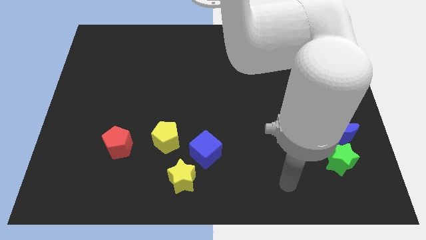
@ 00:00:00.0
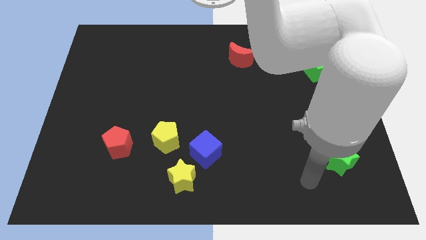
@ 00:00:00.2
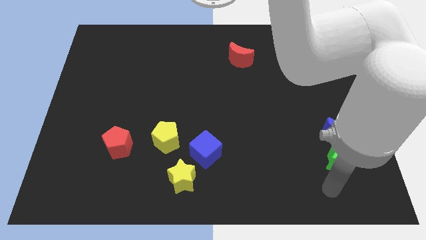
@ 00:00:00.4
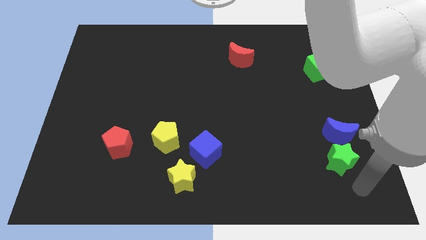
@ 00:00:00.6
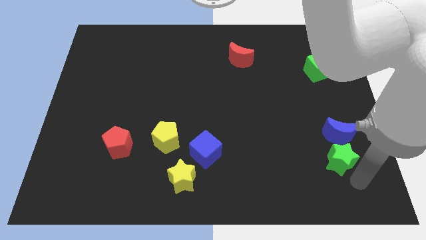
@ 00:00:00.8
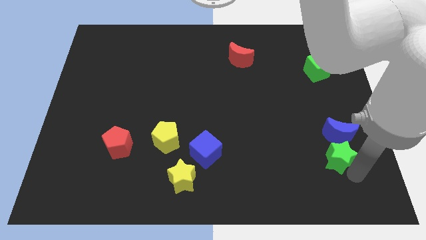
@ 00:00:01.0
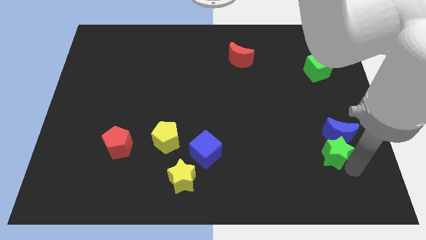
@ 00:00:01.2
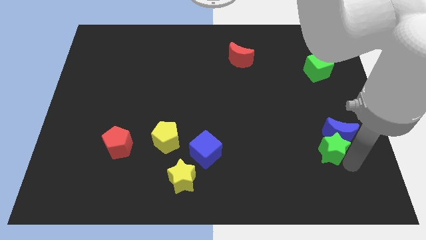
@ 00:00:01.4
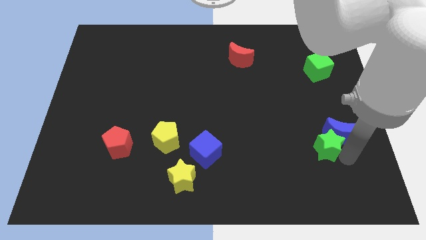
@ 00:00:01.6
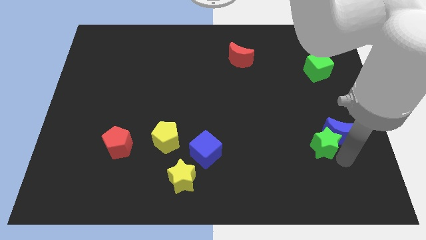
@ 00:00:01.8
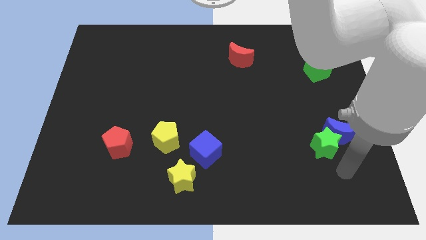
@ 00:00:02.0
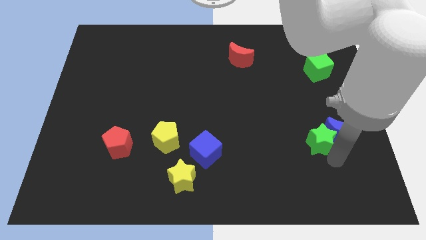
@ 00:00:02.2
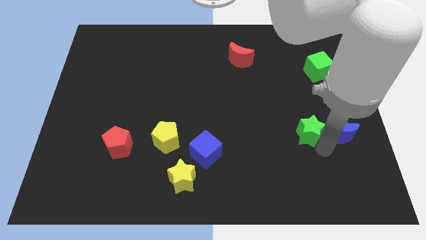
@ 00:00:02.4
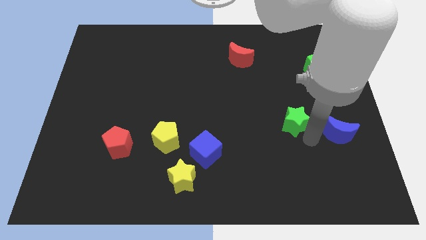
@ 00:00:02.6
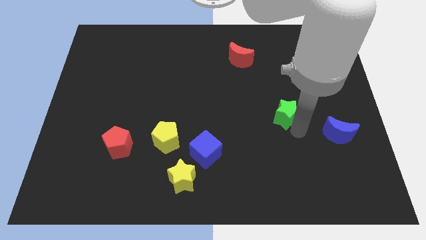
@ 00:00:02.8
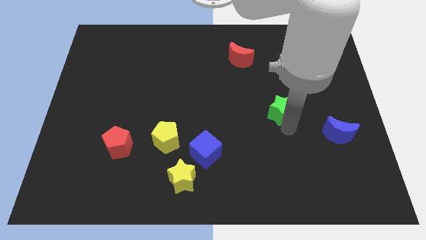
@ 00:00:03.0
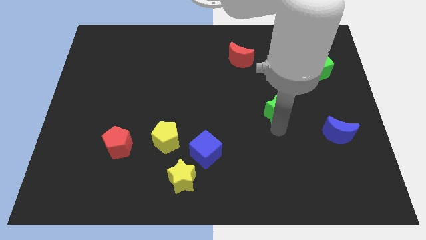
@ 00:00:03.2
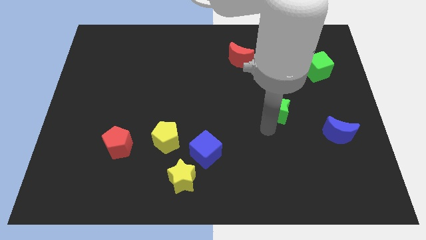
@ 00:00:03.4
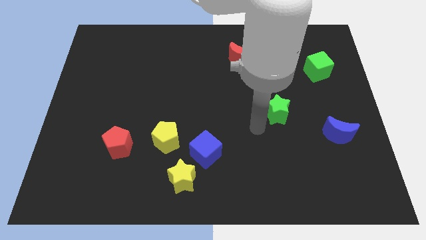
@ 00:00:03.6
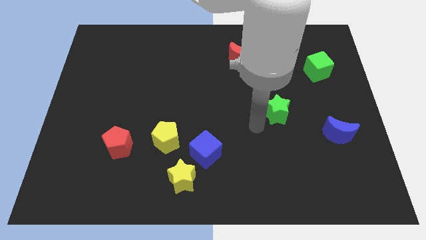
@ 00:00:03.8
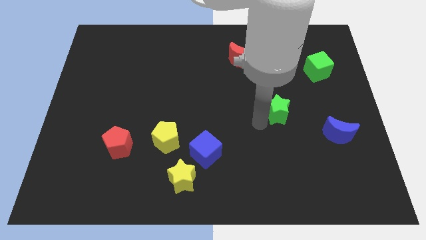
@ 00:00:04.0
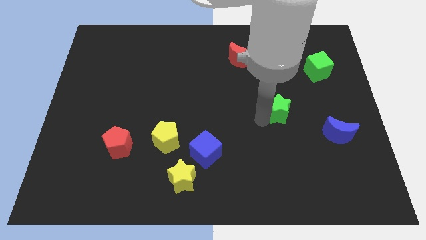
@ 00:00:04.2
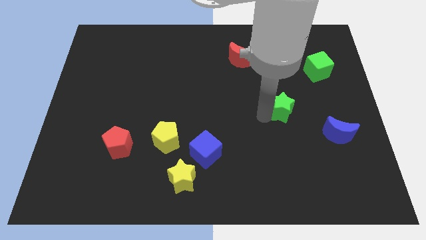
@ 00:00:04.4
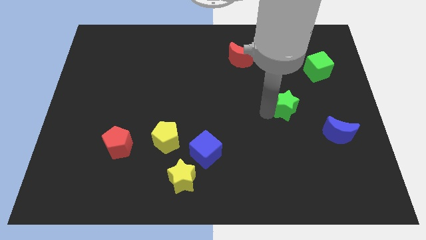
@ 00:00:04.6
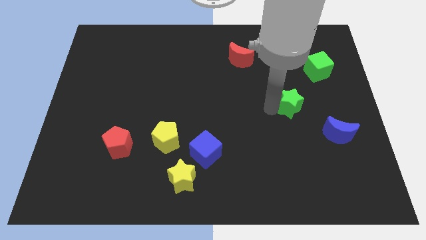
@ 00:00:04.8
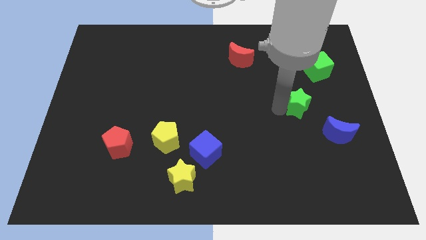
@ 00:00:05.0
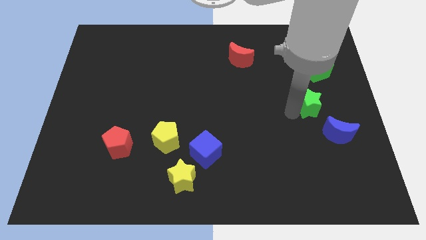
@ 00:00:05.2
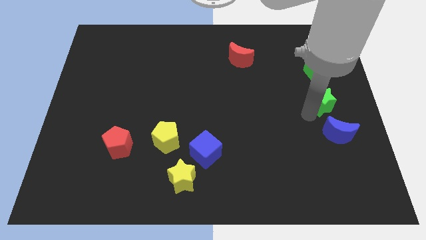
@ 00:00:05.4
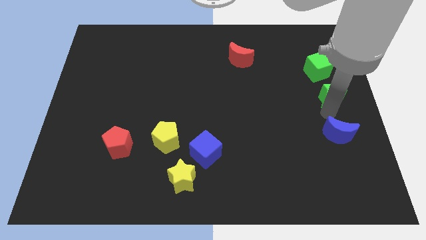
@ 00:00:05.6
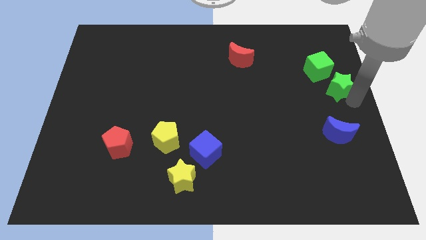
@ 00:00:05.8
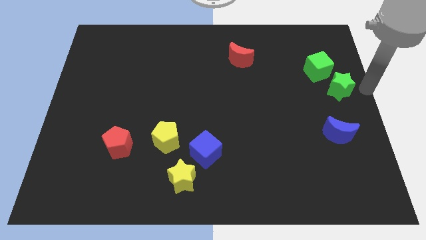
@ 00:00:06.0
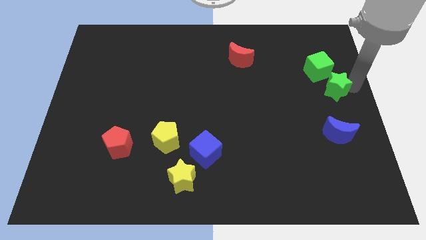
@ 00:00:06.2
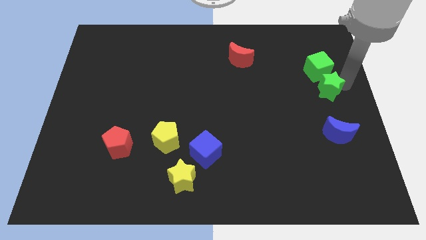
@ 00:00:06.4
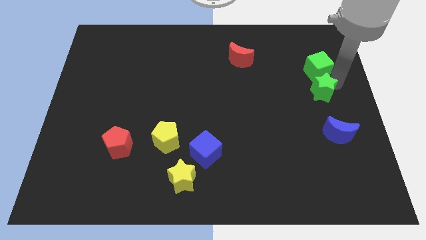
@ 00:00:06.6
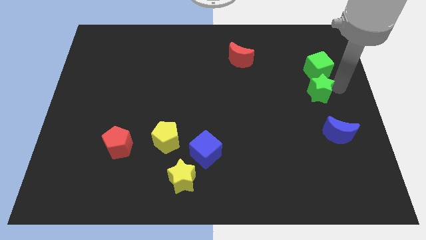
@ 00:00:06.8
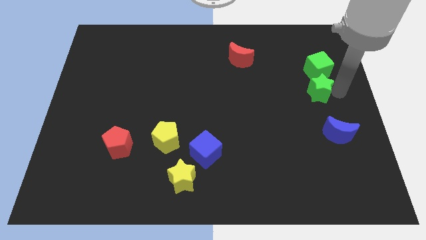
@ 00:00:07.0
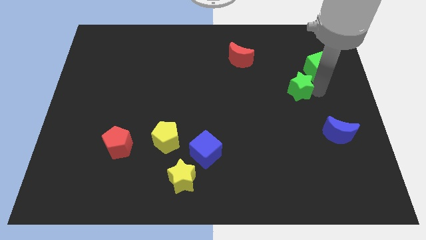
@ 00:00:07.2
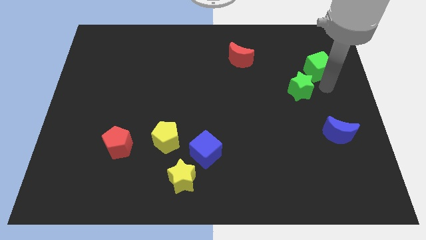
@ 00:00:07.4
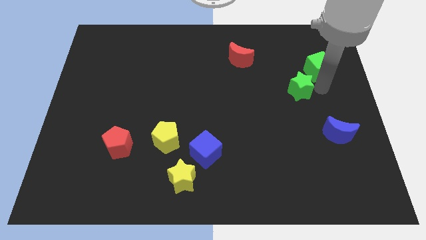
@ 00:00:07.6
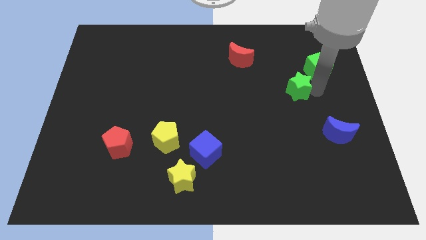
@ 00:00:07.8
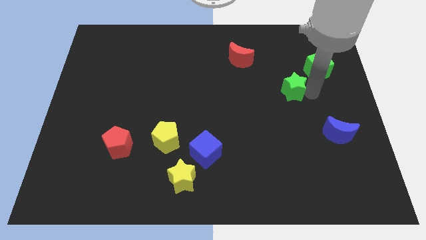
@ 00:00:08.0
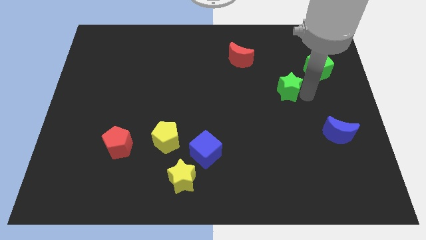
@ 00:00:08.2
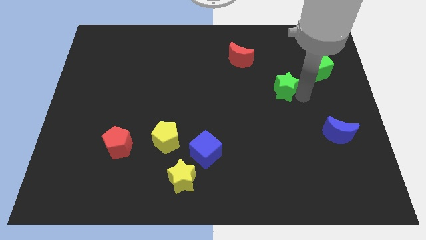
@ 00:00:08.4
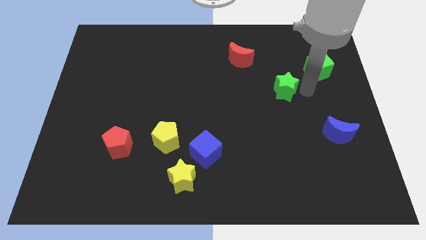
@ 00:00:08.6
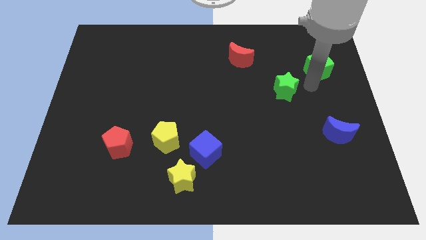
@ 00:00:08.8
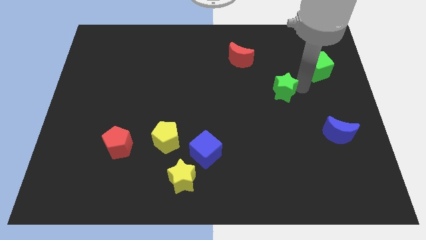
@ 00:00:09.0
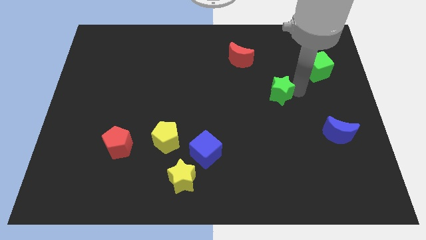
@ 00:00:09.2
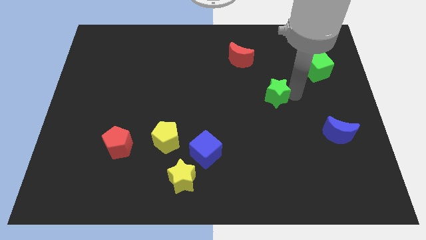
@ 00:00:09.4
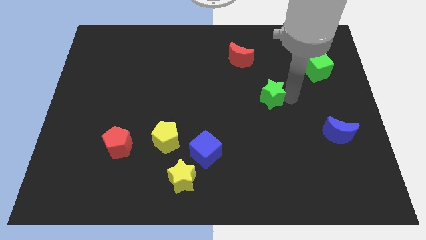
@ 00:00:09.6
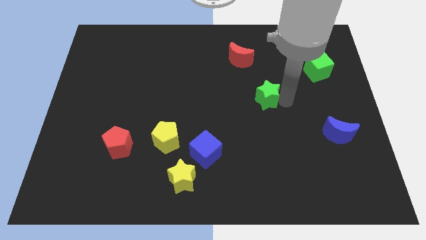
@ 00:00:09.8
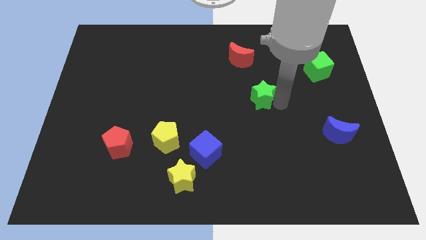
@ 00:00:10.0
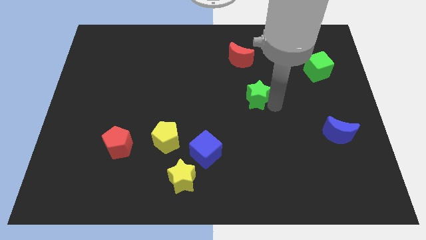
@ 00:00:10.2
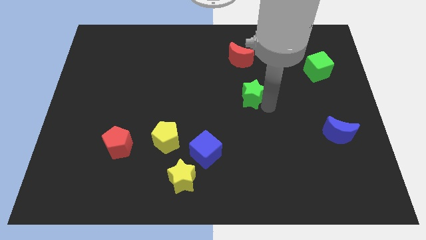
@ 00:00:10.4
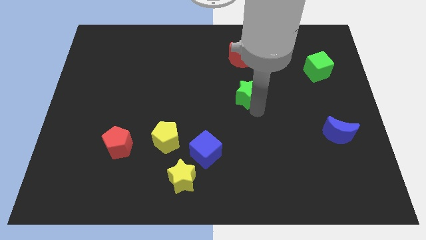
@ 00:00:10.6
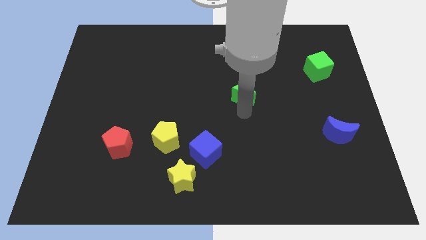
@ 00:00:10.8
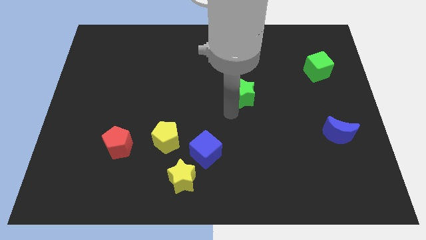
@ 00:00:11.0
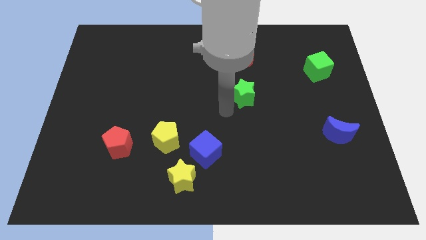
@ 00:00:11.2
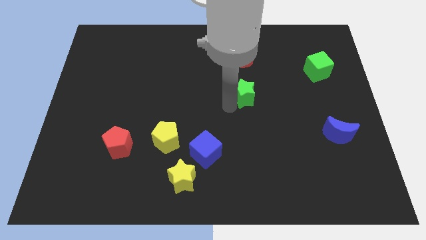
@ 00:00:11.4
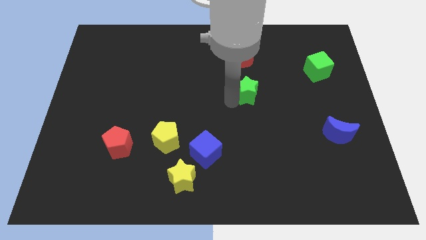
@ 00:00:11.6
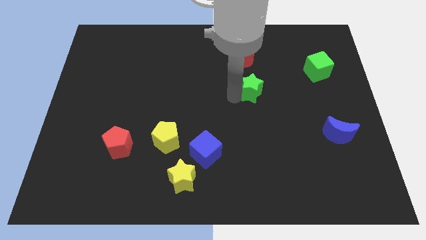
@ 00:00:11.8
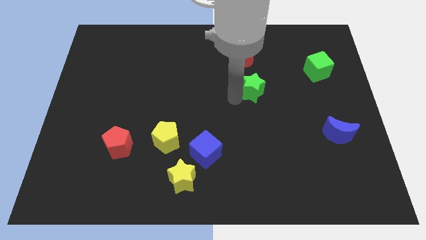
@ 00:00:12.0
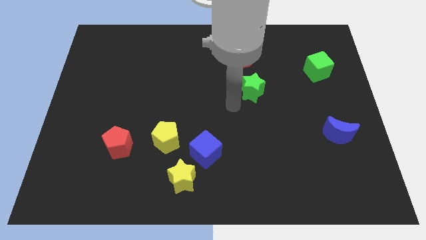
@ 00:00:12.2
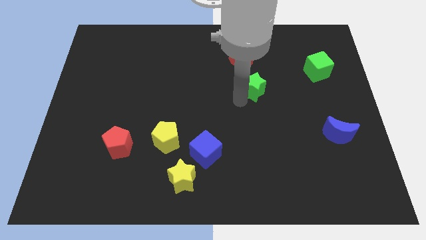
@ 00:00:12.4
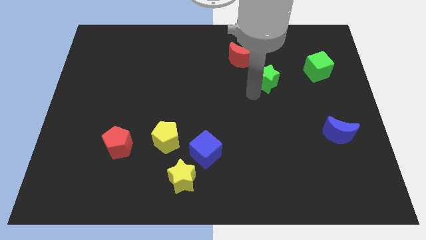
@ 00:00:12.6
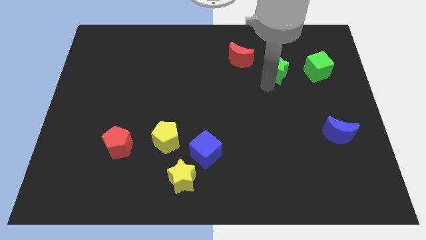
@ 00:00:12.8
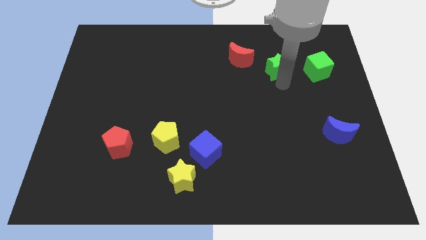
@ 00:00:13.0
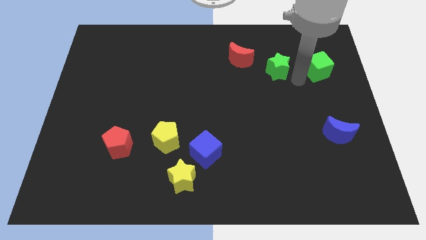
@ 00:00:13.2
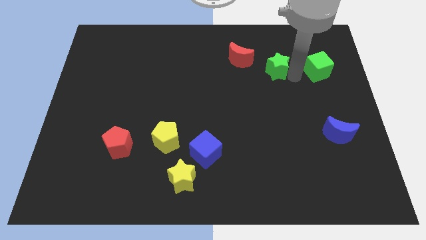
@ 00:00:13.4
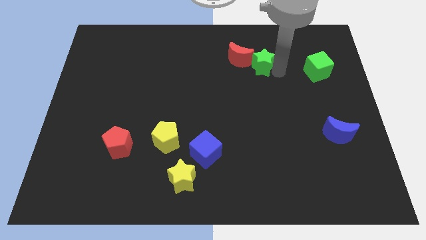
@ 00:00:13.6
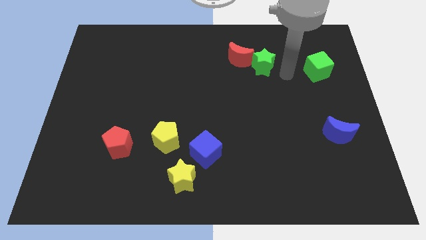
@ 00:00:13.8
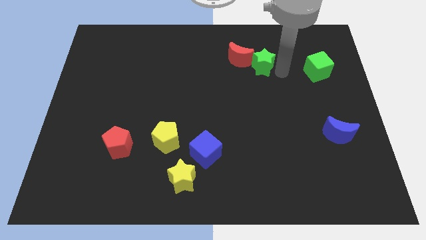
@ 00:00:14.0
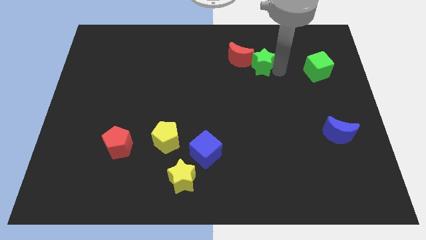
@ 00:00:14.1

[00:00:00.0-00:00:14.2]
move the green star next to the red moon
